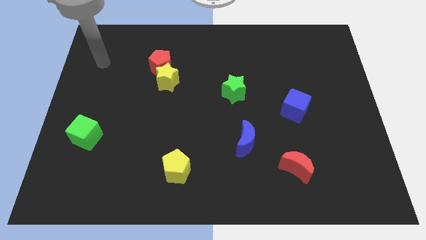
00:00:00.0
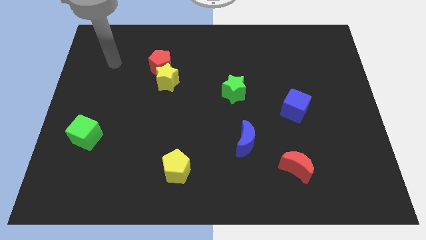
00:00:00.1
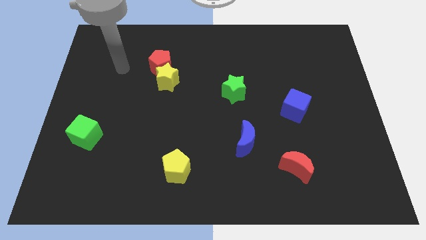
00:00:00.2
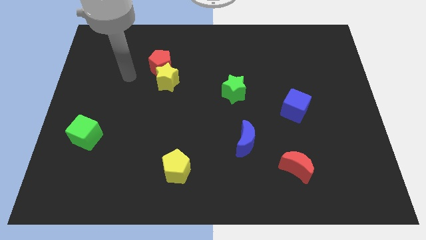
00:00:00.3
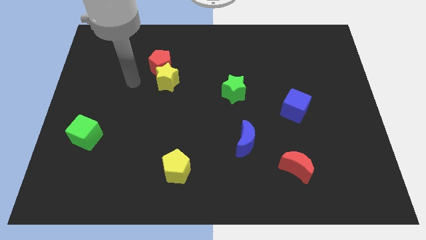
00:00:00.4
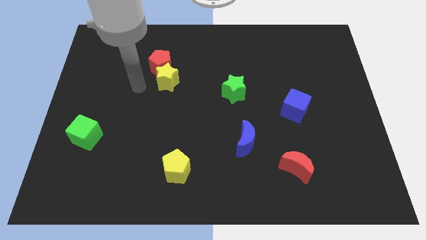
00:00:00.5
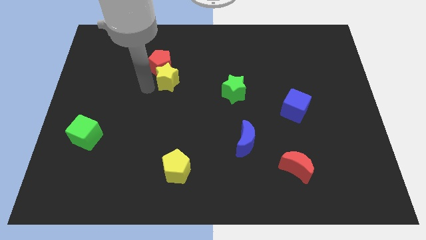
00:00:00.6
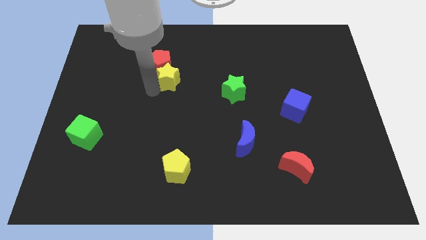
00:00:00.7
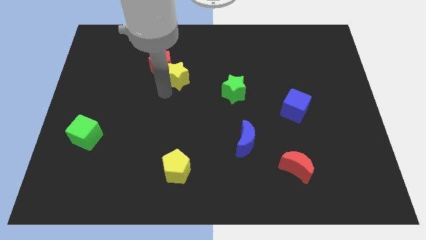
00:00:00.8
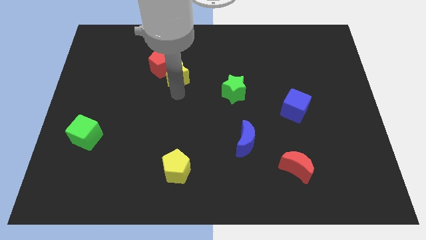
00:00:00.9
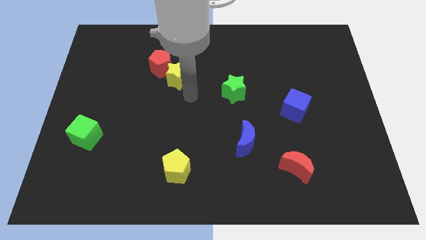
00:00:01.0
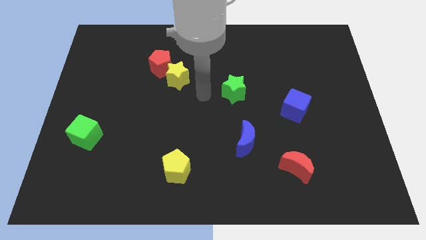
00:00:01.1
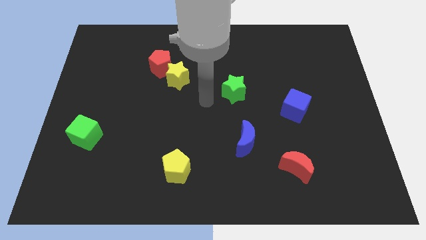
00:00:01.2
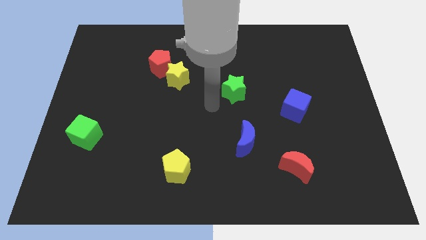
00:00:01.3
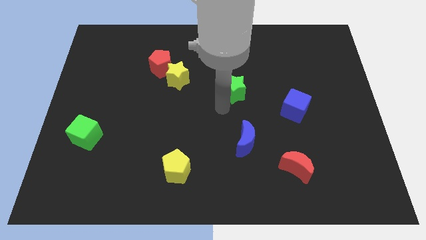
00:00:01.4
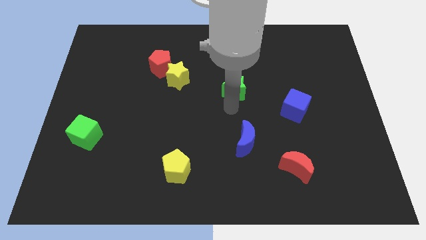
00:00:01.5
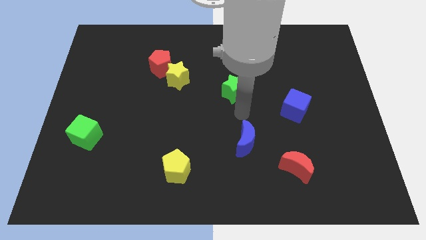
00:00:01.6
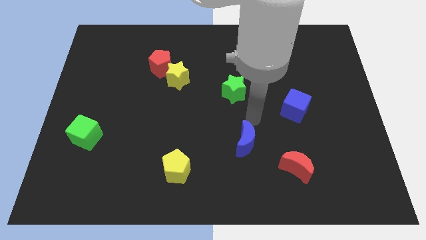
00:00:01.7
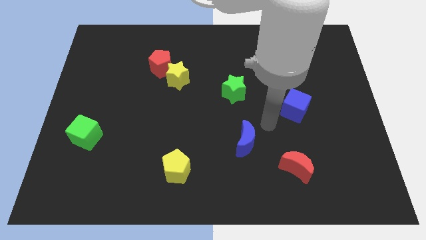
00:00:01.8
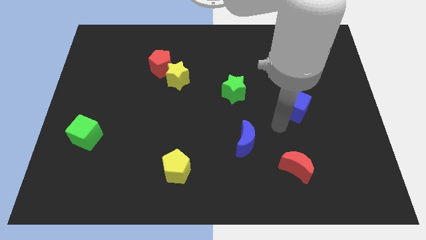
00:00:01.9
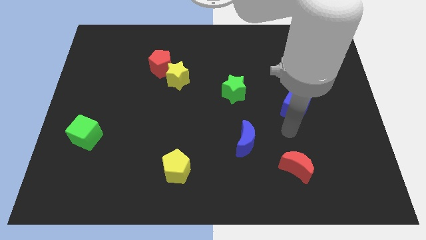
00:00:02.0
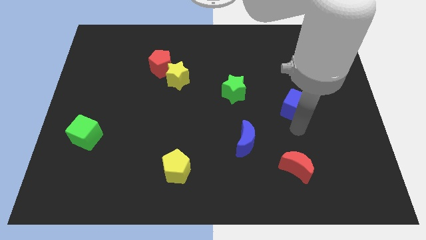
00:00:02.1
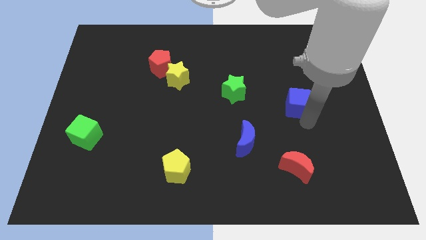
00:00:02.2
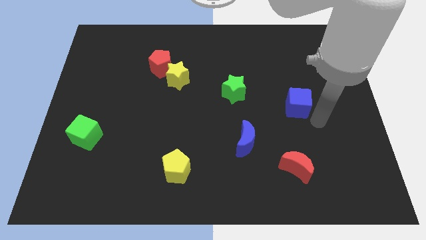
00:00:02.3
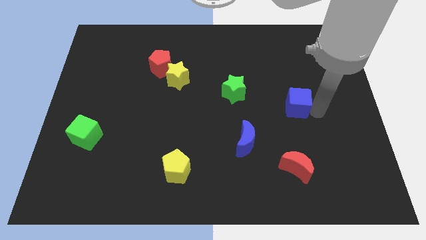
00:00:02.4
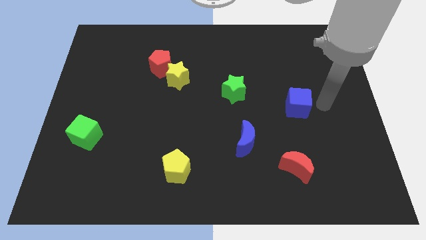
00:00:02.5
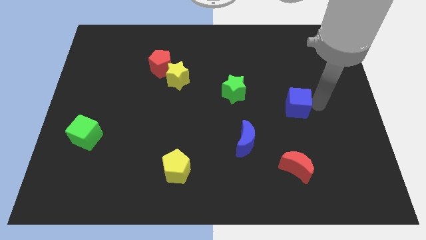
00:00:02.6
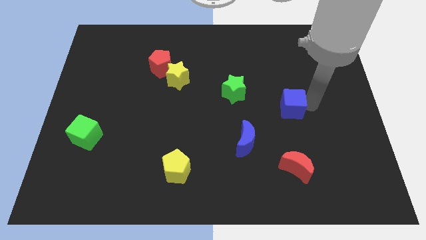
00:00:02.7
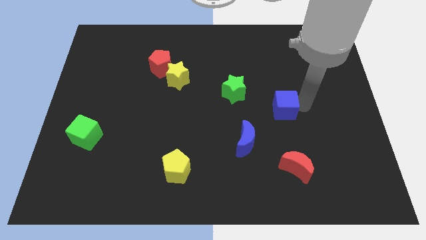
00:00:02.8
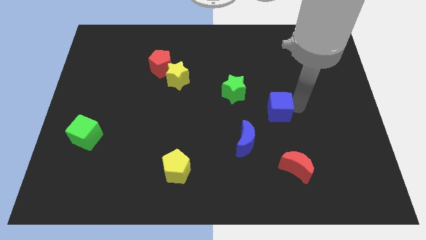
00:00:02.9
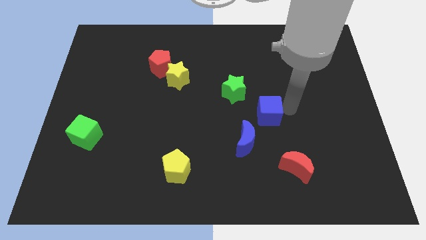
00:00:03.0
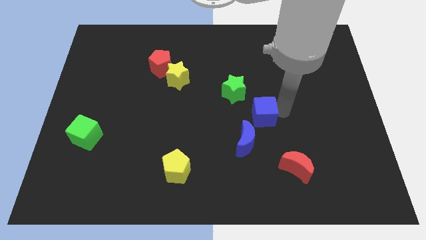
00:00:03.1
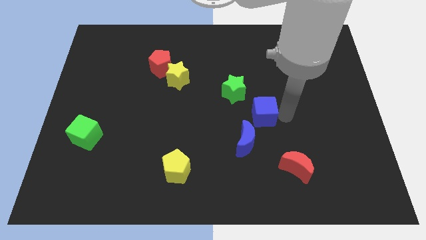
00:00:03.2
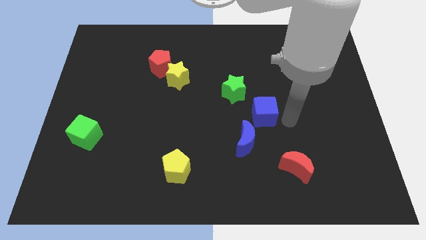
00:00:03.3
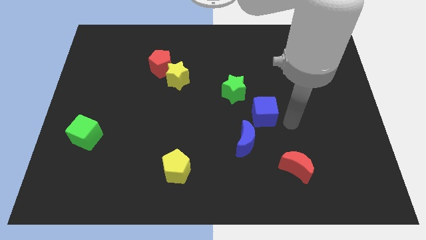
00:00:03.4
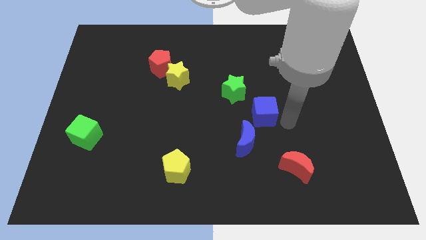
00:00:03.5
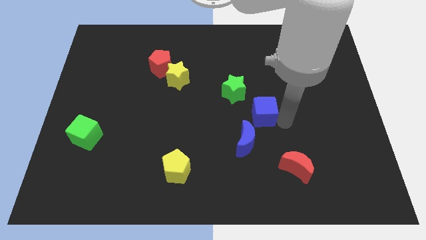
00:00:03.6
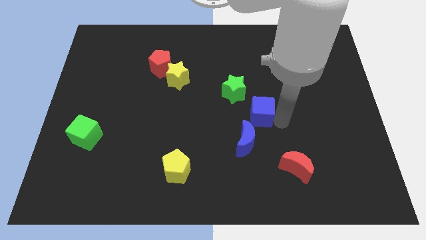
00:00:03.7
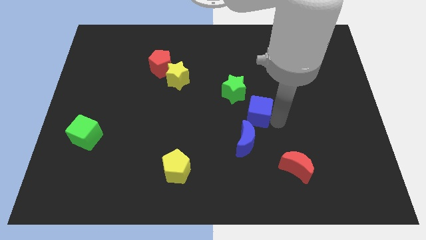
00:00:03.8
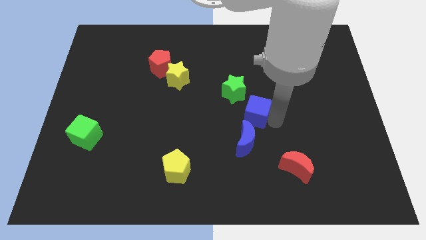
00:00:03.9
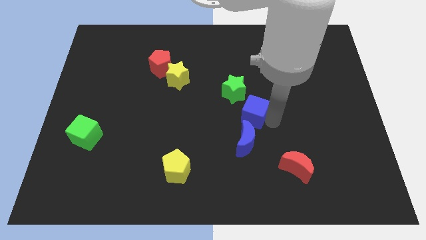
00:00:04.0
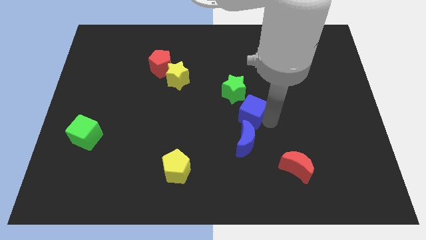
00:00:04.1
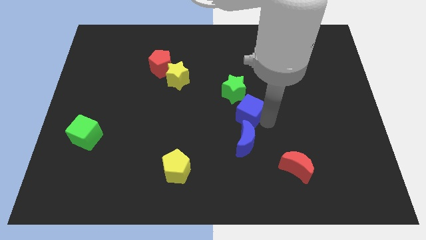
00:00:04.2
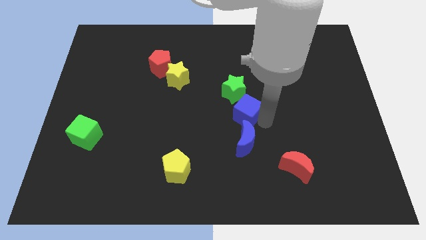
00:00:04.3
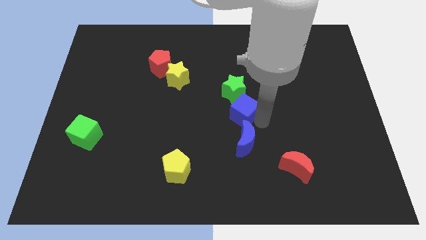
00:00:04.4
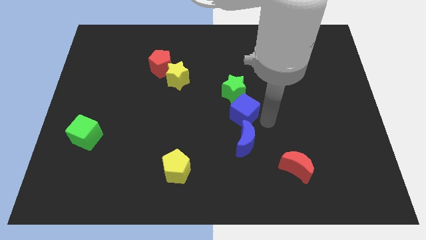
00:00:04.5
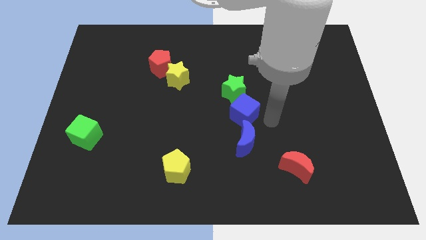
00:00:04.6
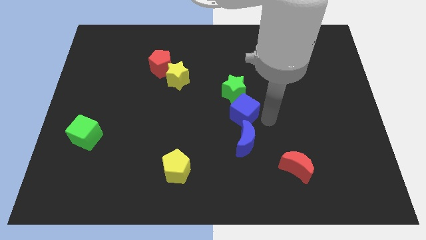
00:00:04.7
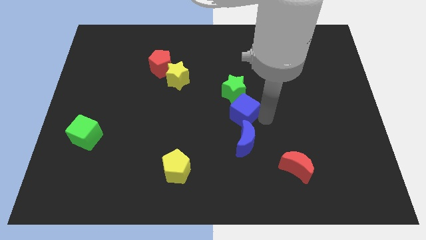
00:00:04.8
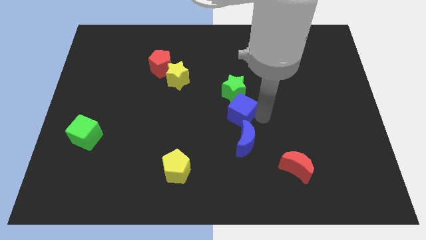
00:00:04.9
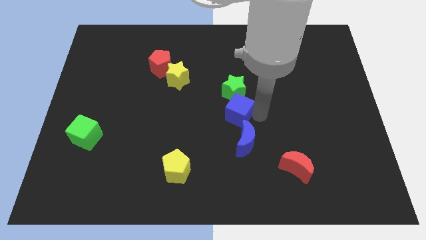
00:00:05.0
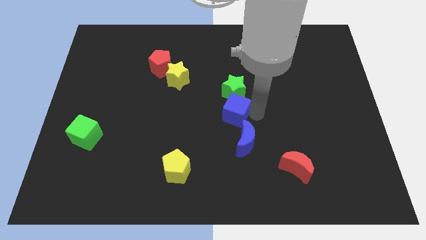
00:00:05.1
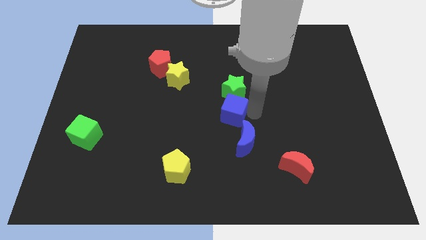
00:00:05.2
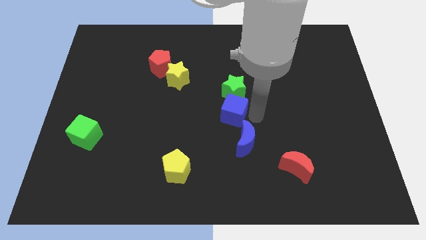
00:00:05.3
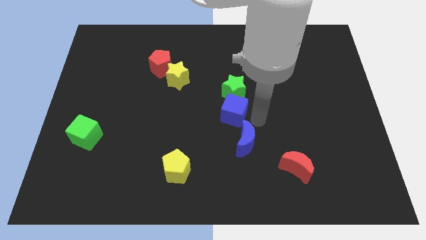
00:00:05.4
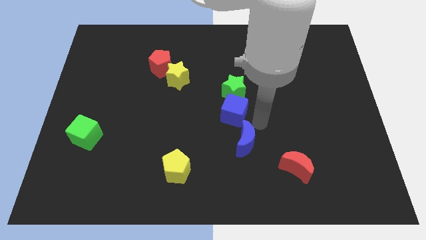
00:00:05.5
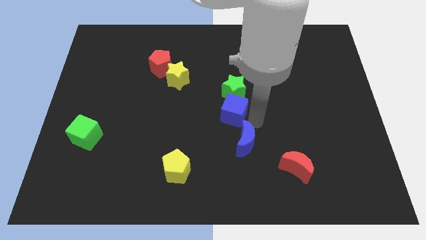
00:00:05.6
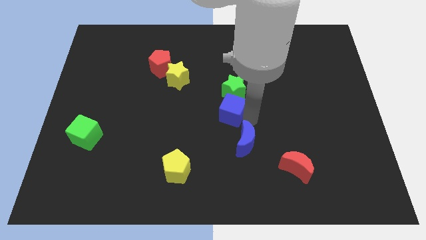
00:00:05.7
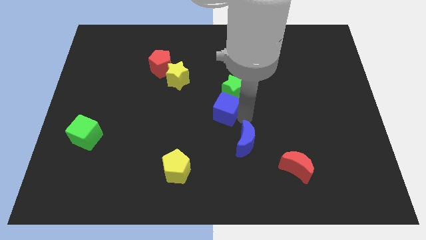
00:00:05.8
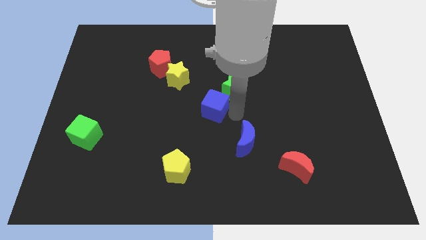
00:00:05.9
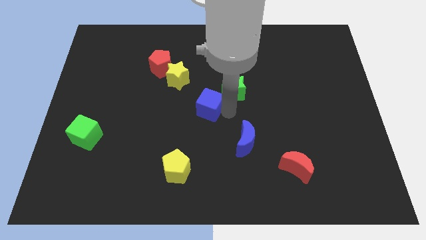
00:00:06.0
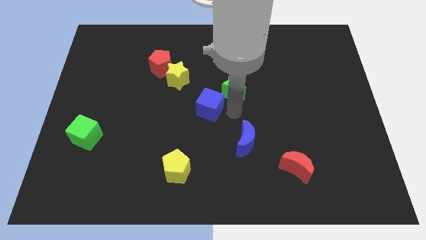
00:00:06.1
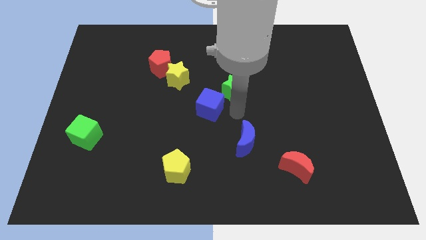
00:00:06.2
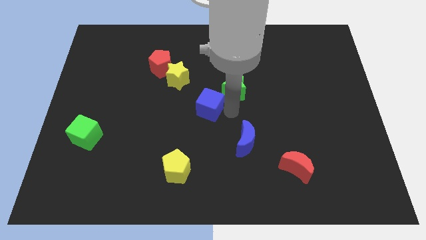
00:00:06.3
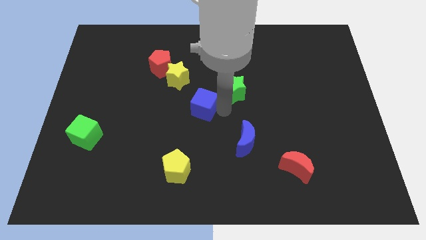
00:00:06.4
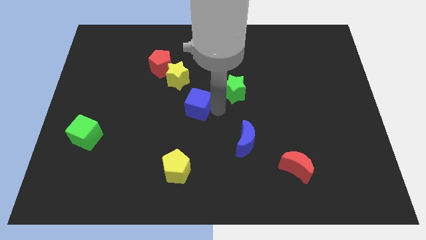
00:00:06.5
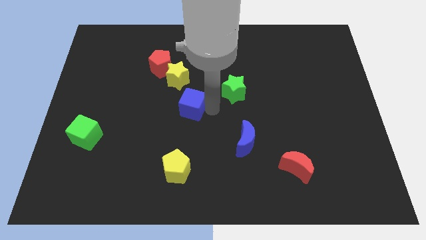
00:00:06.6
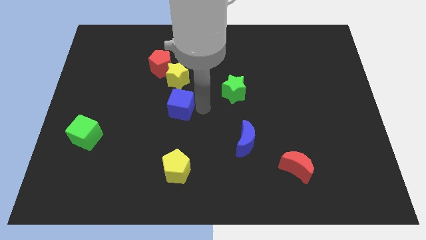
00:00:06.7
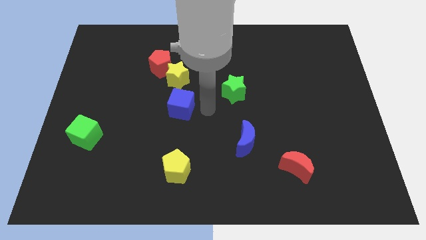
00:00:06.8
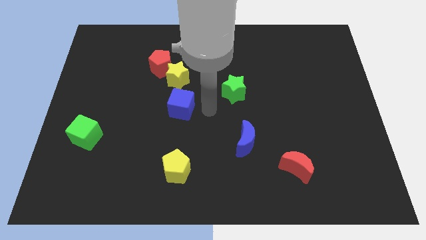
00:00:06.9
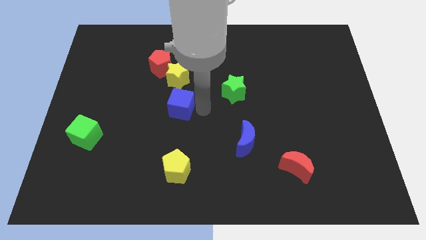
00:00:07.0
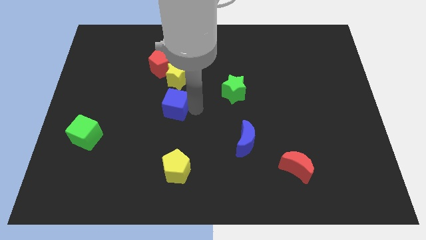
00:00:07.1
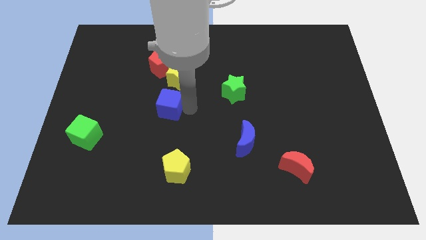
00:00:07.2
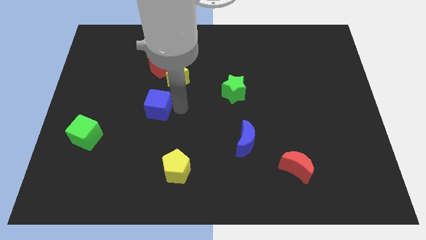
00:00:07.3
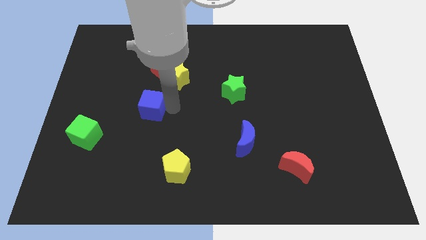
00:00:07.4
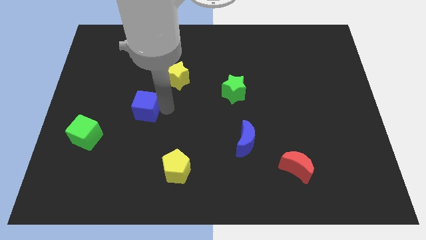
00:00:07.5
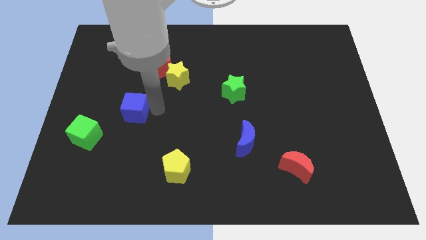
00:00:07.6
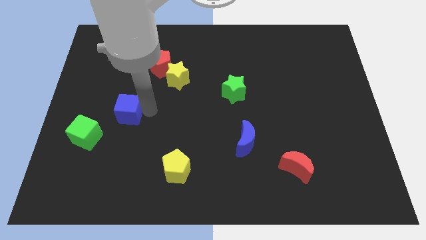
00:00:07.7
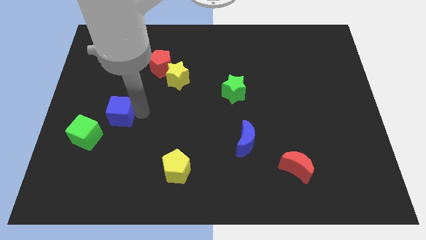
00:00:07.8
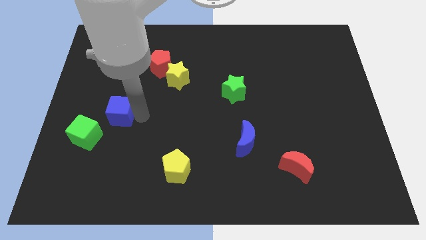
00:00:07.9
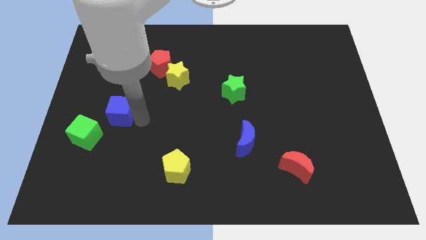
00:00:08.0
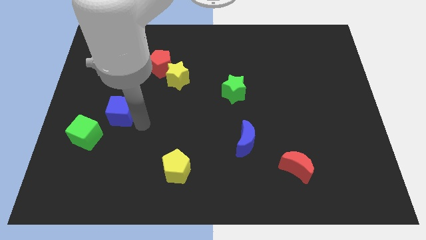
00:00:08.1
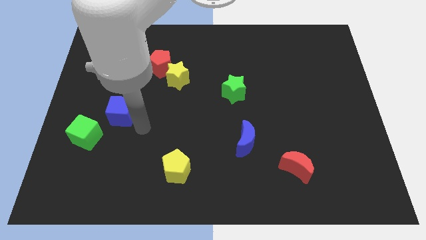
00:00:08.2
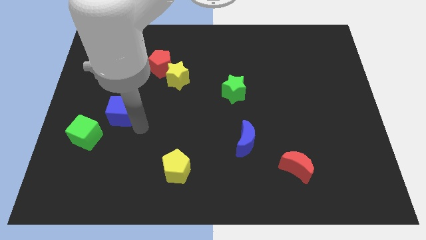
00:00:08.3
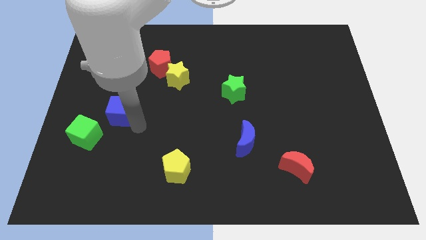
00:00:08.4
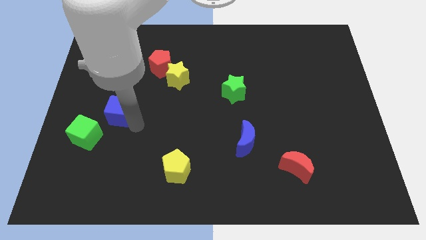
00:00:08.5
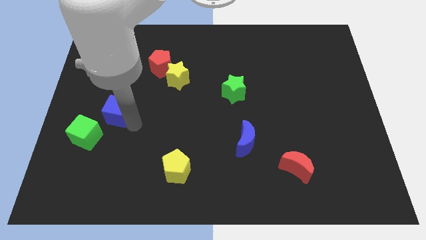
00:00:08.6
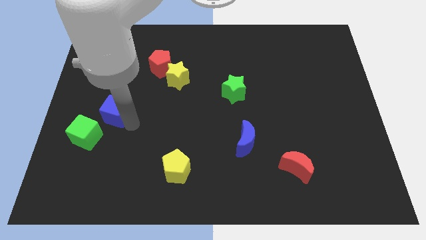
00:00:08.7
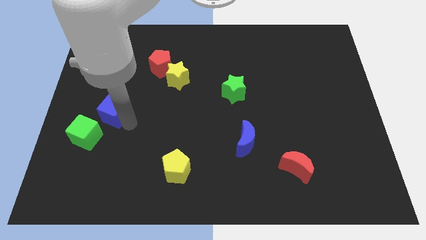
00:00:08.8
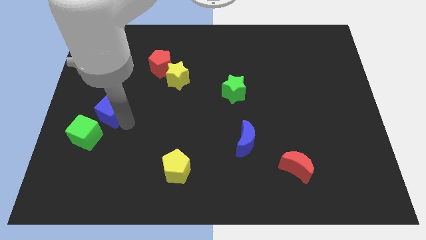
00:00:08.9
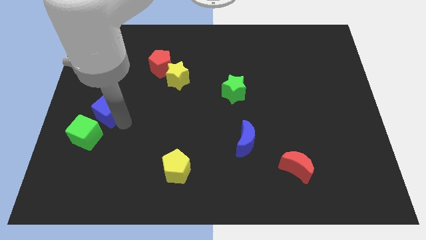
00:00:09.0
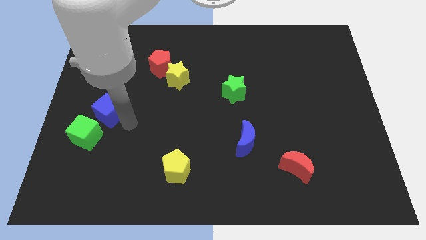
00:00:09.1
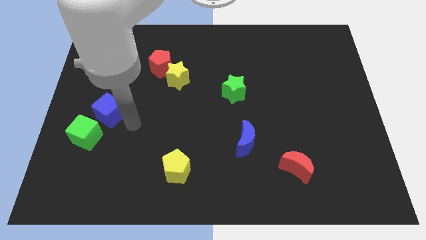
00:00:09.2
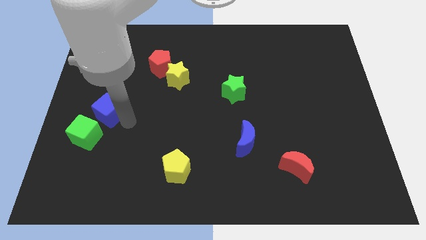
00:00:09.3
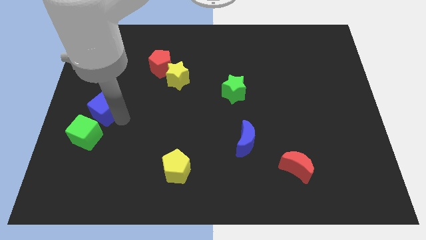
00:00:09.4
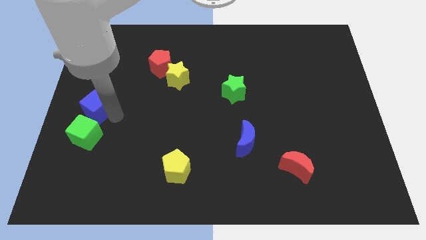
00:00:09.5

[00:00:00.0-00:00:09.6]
slide the blue cube to the left side of the board
